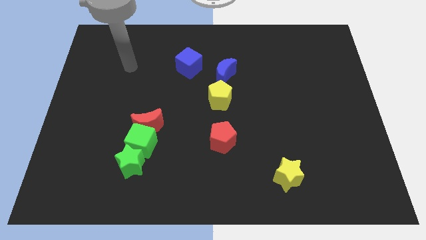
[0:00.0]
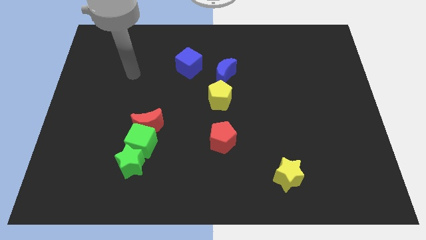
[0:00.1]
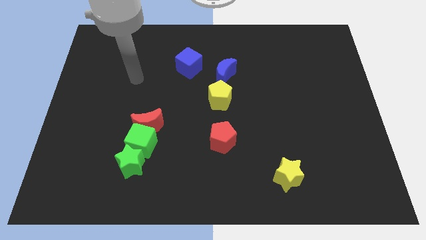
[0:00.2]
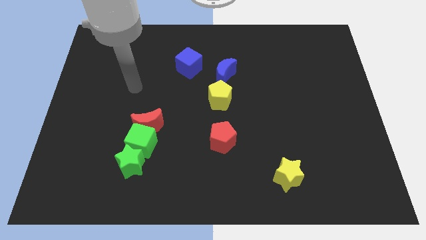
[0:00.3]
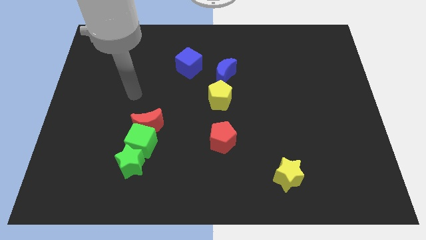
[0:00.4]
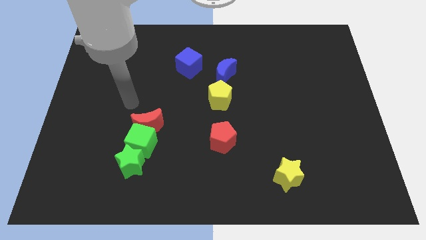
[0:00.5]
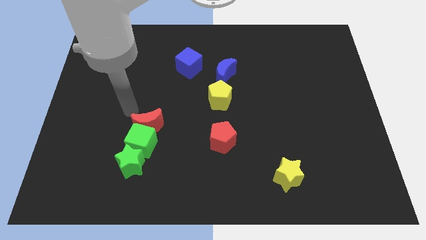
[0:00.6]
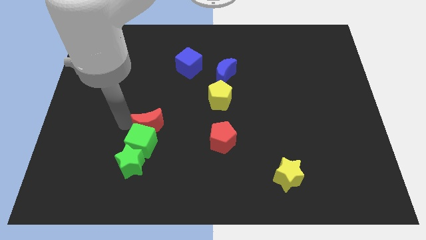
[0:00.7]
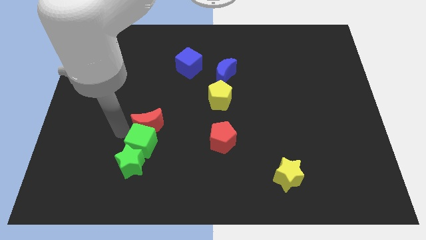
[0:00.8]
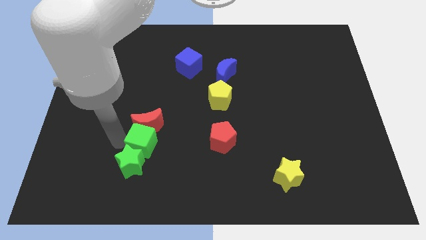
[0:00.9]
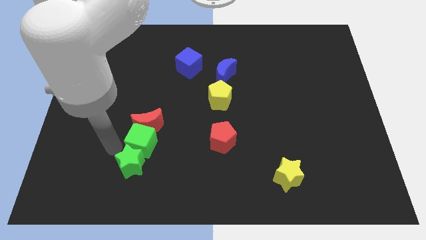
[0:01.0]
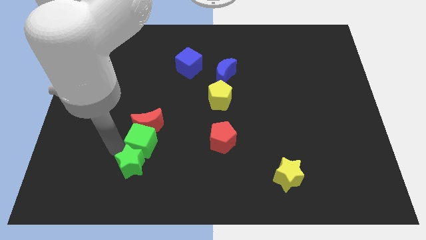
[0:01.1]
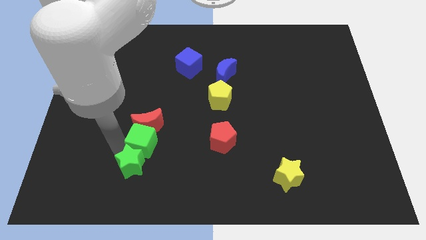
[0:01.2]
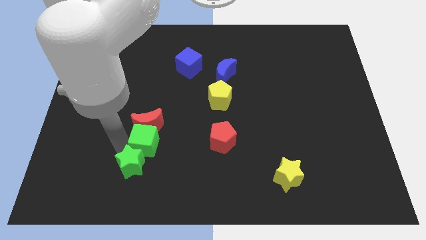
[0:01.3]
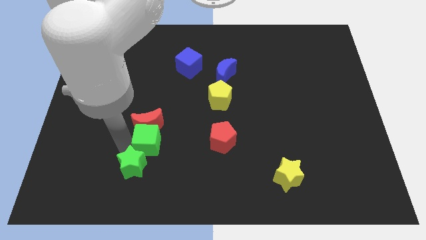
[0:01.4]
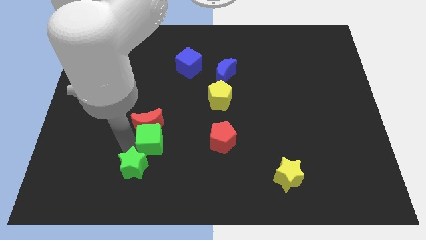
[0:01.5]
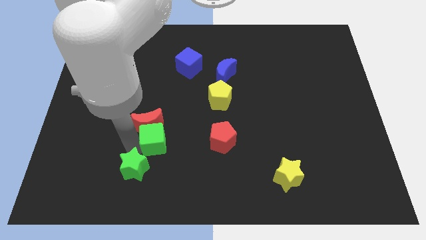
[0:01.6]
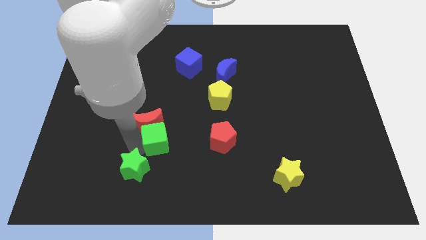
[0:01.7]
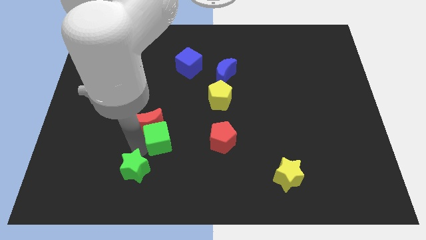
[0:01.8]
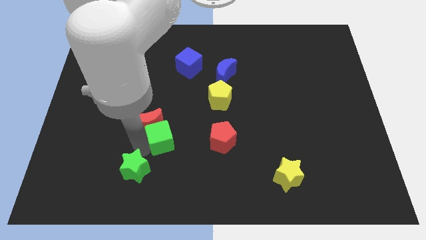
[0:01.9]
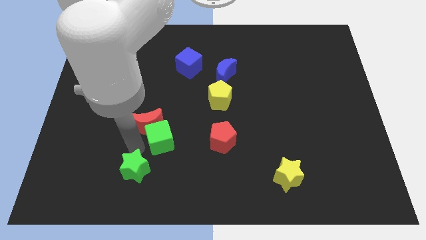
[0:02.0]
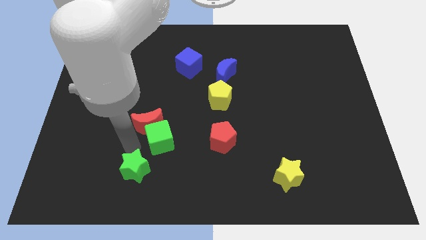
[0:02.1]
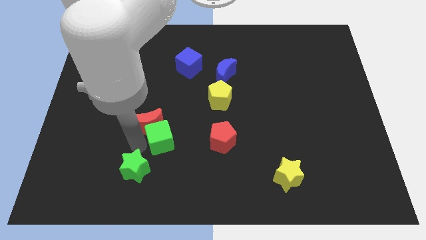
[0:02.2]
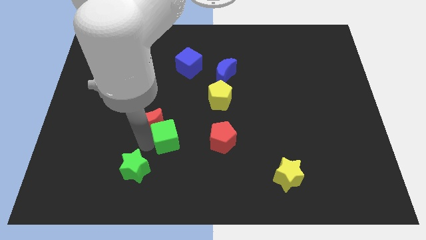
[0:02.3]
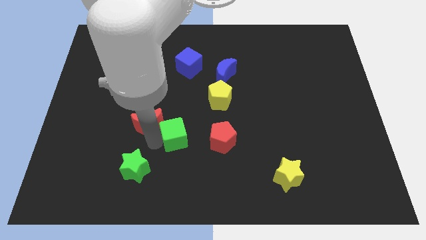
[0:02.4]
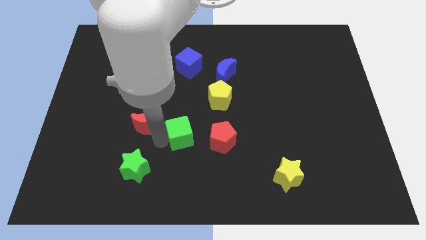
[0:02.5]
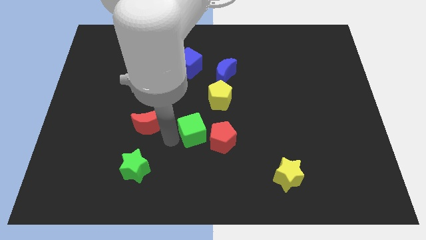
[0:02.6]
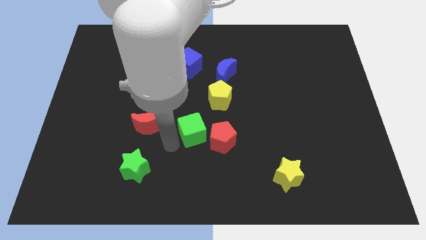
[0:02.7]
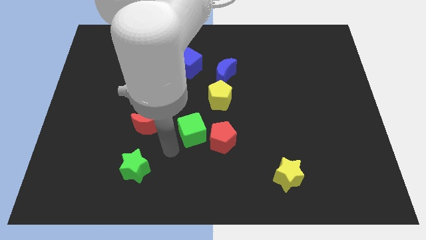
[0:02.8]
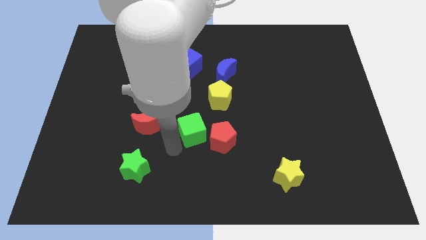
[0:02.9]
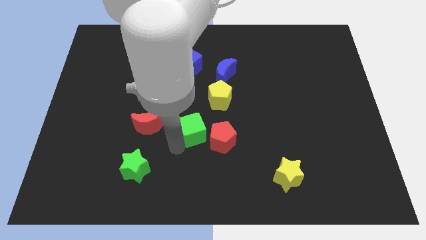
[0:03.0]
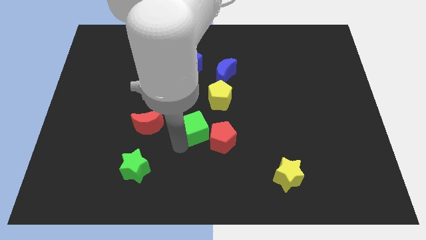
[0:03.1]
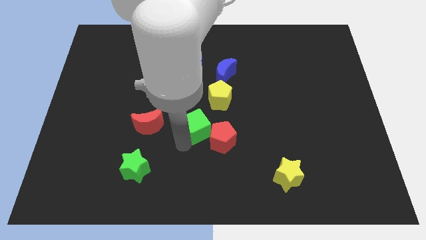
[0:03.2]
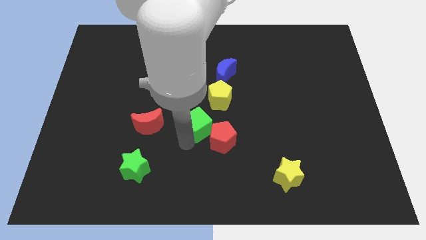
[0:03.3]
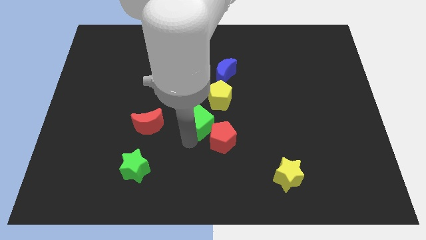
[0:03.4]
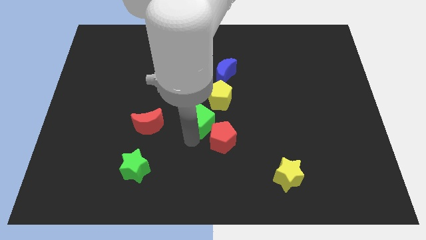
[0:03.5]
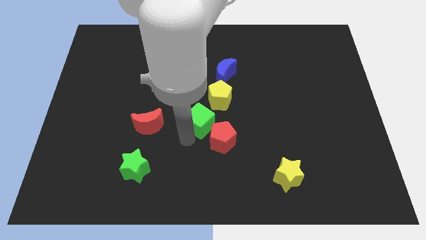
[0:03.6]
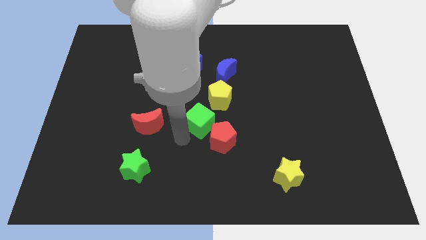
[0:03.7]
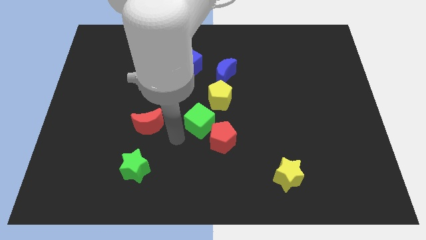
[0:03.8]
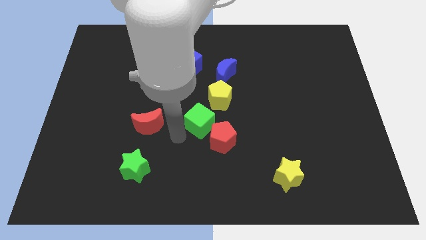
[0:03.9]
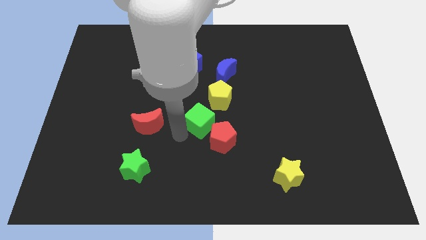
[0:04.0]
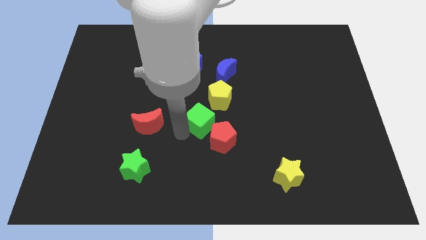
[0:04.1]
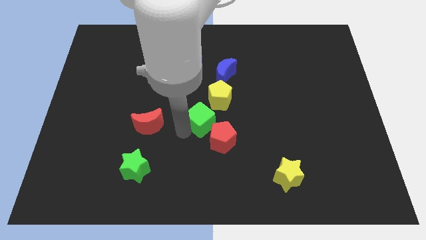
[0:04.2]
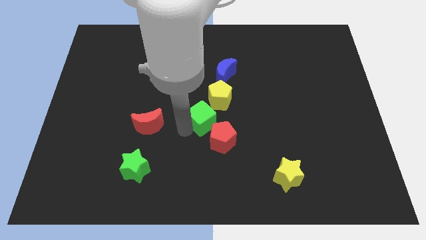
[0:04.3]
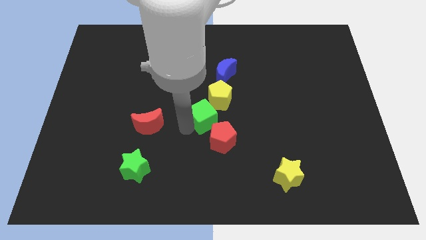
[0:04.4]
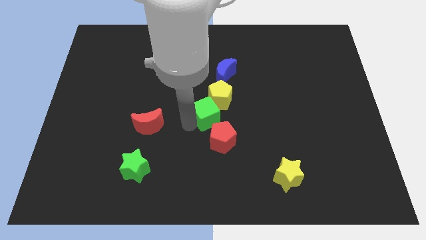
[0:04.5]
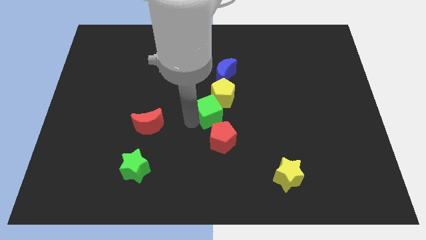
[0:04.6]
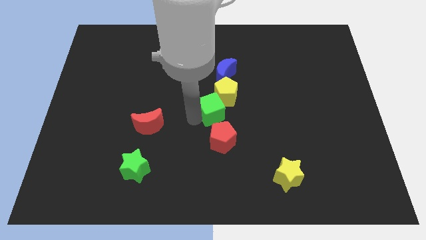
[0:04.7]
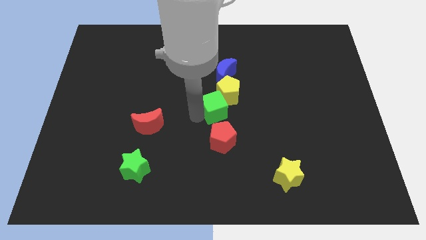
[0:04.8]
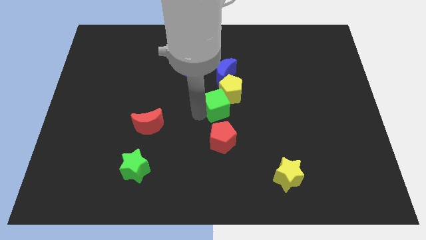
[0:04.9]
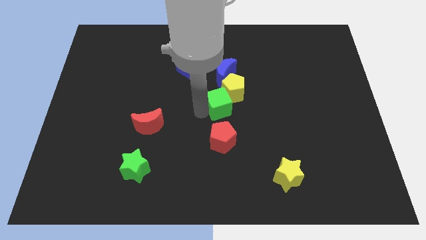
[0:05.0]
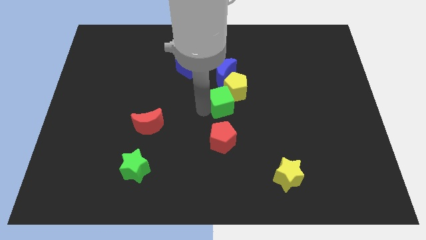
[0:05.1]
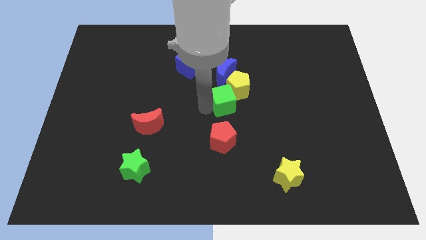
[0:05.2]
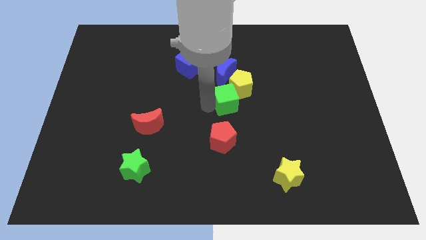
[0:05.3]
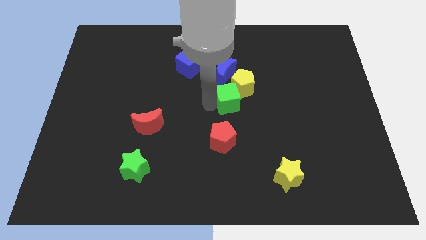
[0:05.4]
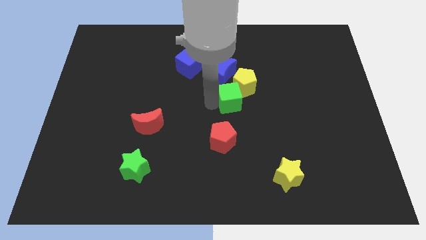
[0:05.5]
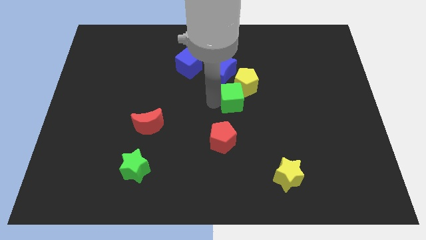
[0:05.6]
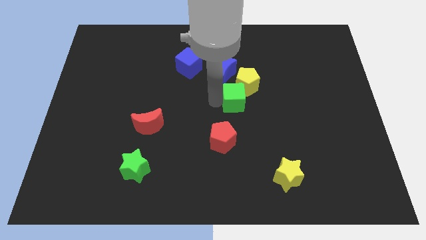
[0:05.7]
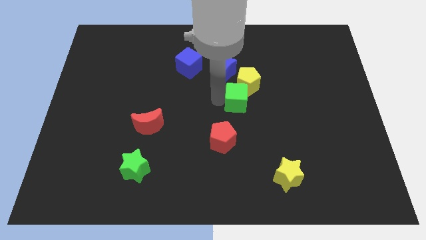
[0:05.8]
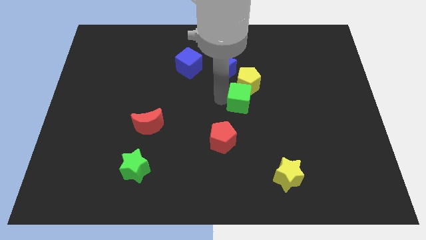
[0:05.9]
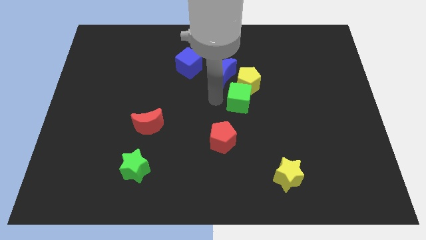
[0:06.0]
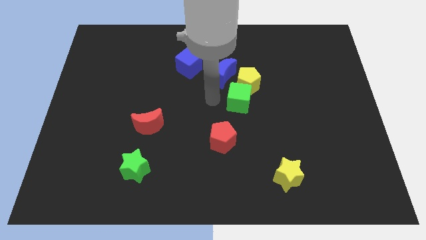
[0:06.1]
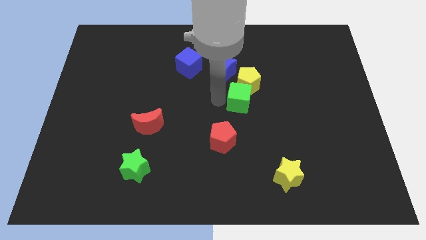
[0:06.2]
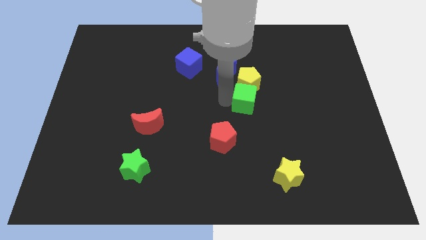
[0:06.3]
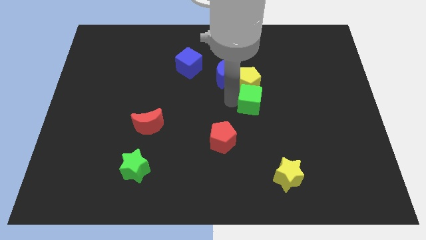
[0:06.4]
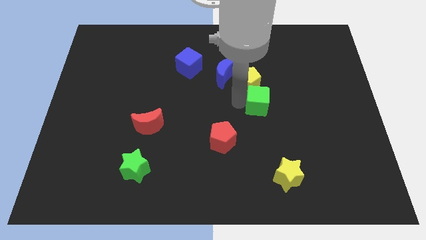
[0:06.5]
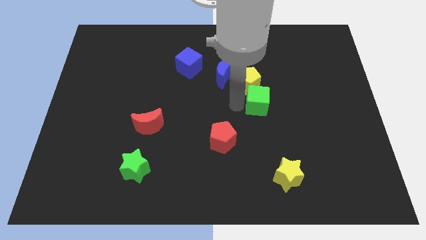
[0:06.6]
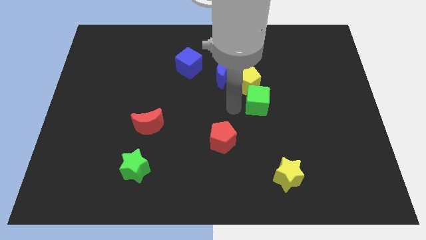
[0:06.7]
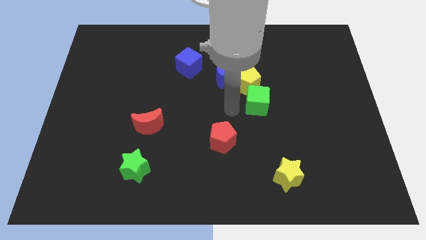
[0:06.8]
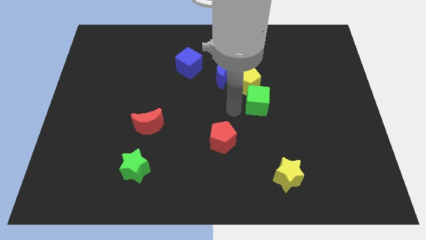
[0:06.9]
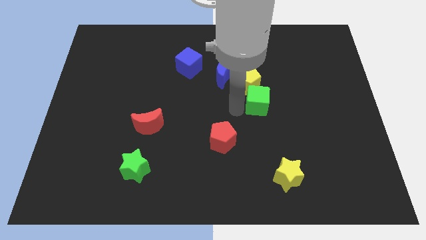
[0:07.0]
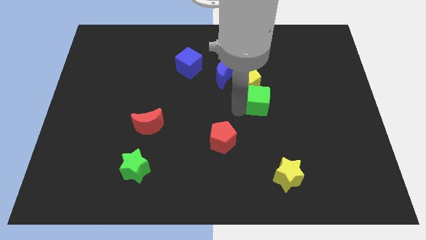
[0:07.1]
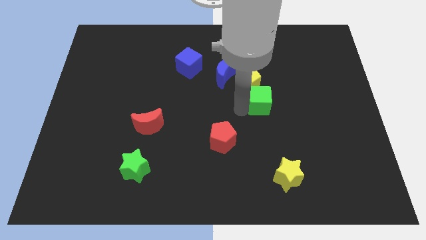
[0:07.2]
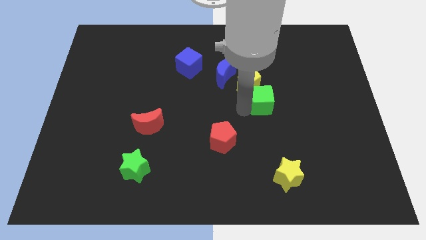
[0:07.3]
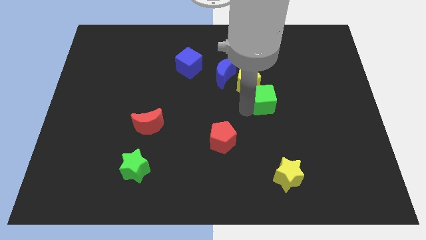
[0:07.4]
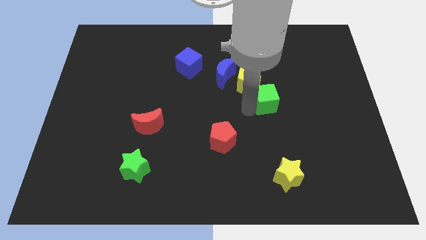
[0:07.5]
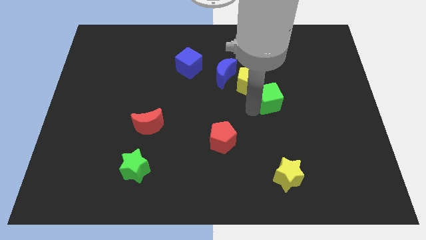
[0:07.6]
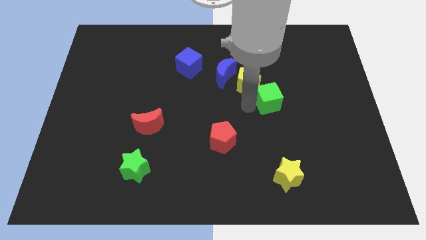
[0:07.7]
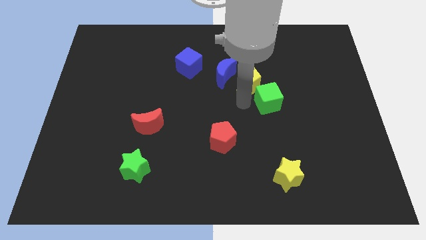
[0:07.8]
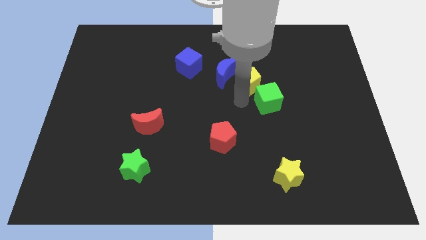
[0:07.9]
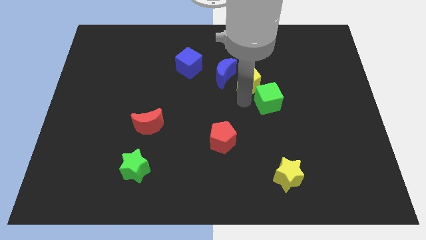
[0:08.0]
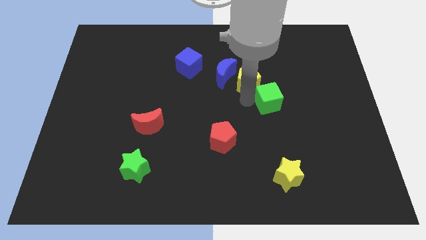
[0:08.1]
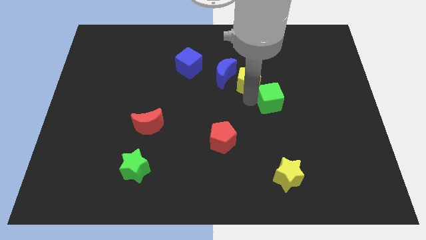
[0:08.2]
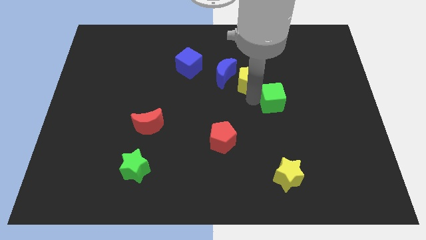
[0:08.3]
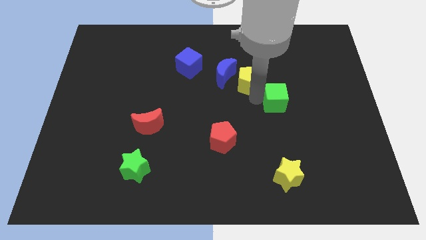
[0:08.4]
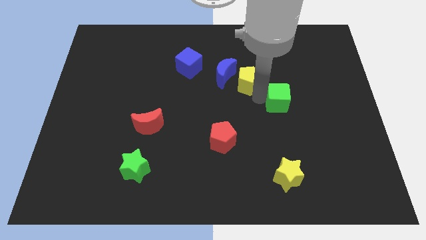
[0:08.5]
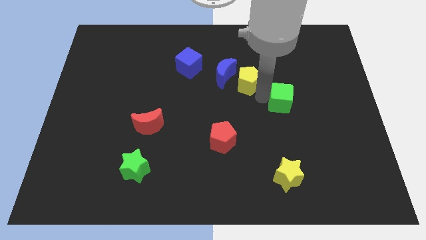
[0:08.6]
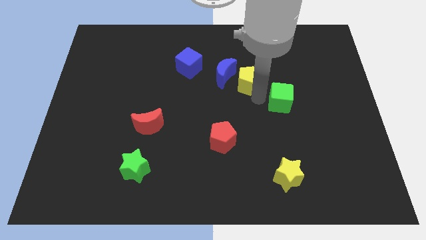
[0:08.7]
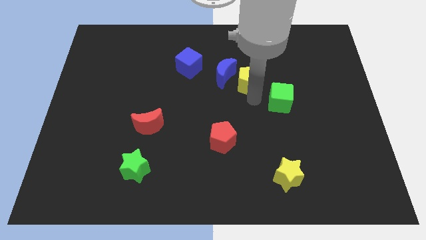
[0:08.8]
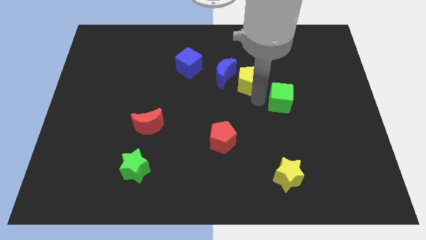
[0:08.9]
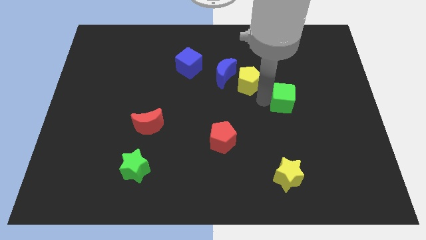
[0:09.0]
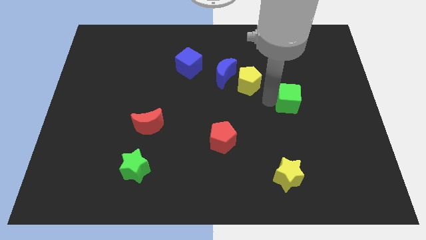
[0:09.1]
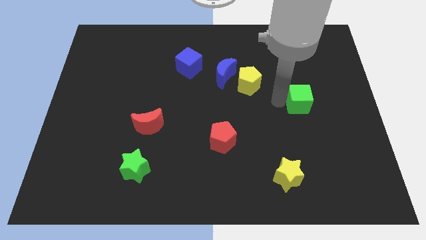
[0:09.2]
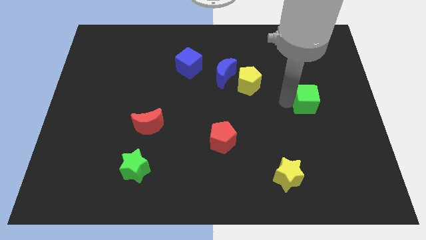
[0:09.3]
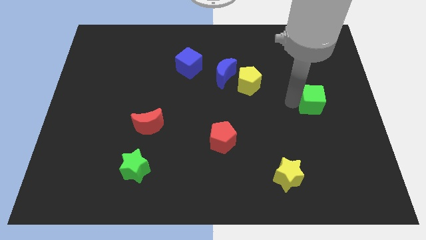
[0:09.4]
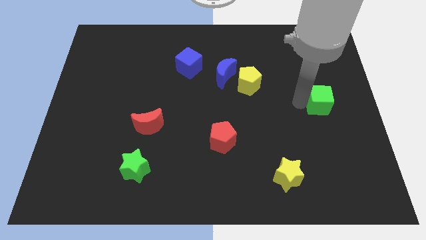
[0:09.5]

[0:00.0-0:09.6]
move the green cube to the right side
